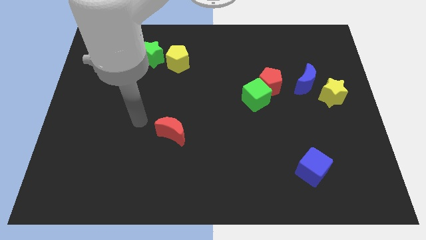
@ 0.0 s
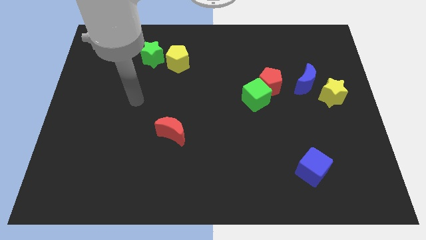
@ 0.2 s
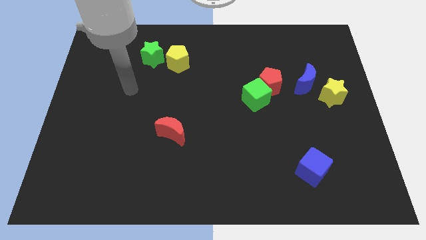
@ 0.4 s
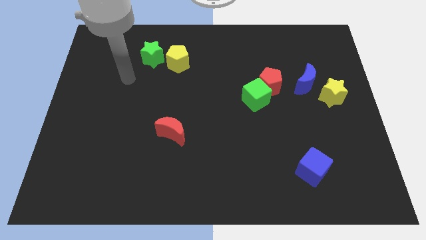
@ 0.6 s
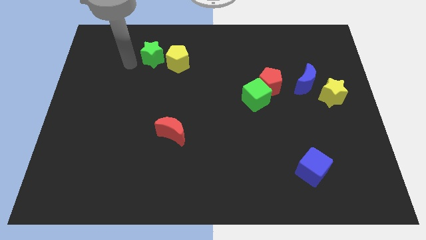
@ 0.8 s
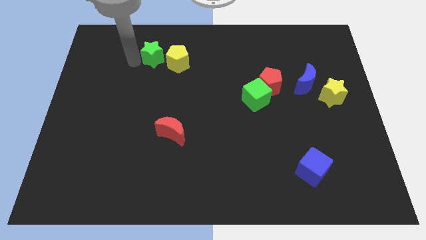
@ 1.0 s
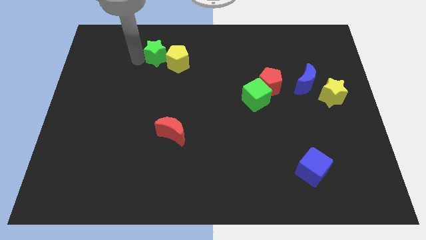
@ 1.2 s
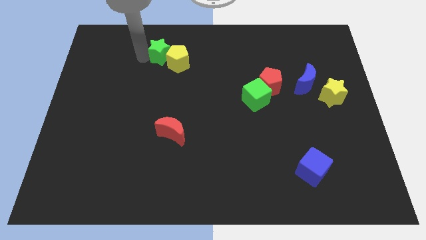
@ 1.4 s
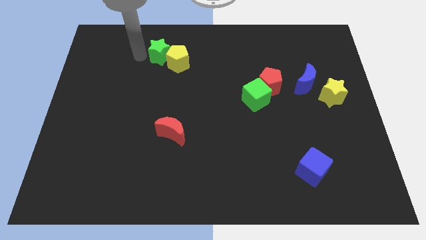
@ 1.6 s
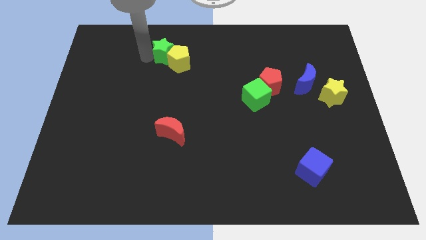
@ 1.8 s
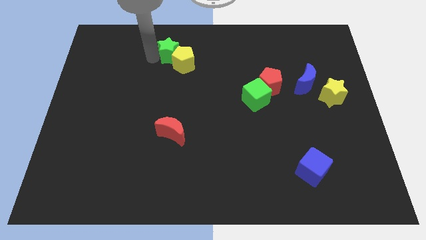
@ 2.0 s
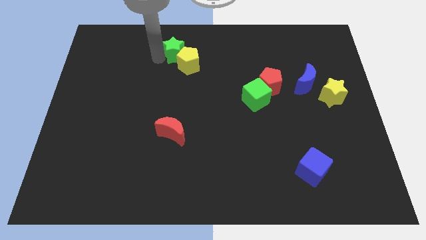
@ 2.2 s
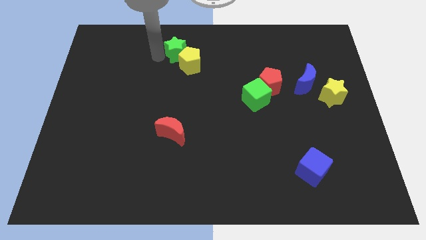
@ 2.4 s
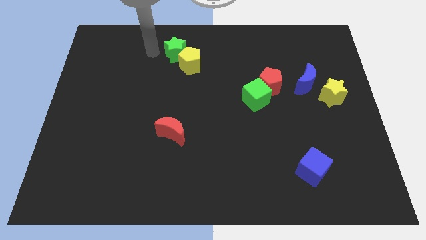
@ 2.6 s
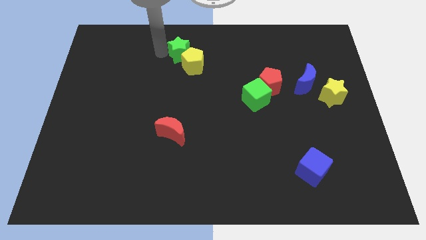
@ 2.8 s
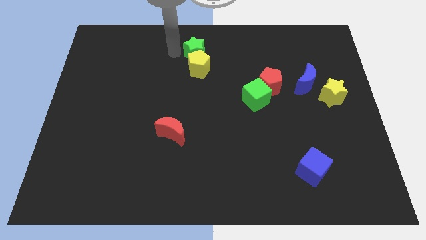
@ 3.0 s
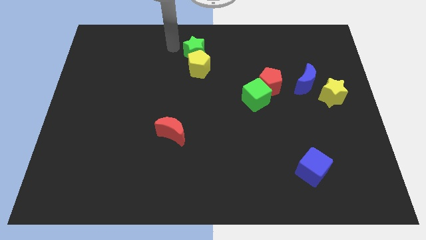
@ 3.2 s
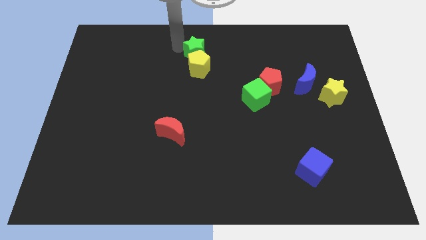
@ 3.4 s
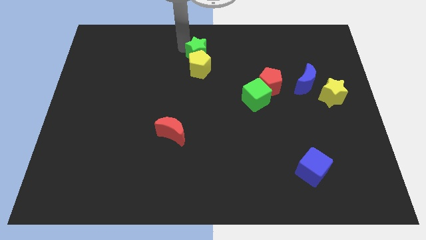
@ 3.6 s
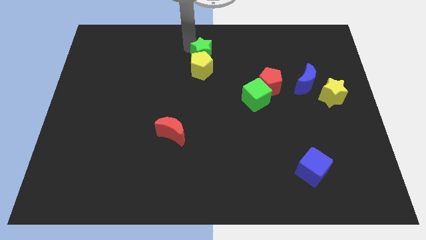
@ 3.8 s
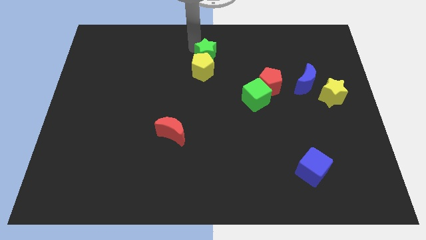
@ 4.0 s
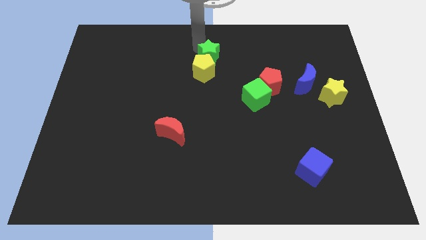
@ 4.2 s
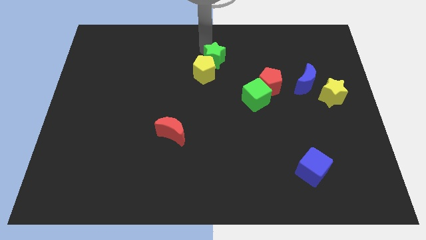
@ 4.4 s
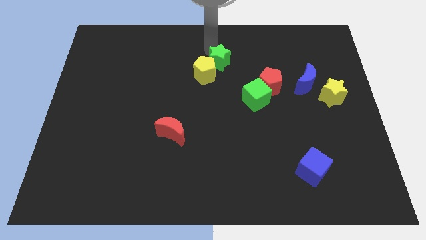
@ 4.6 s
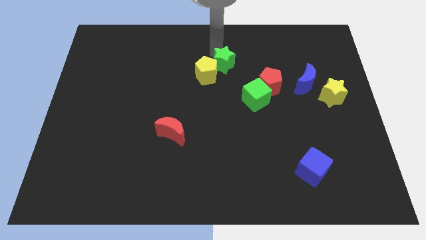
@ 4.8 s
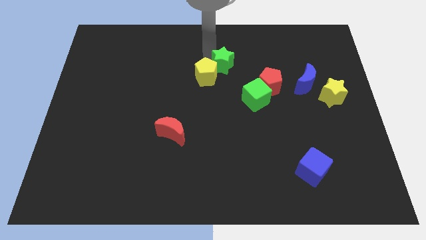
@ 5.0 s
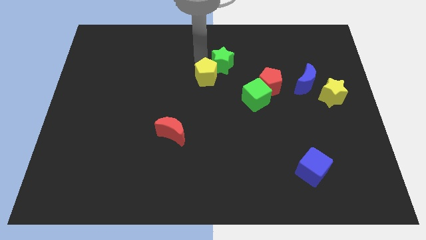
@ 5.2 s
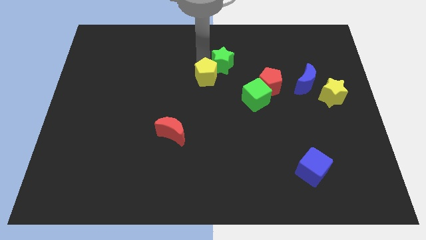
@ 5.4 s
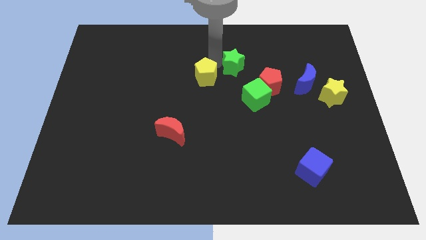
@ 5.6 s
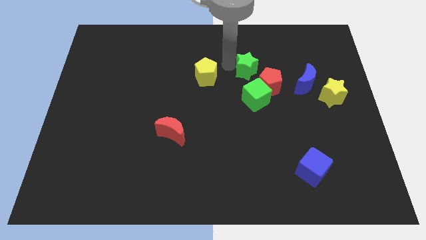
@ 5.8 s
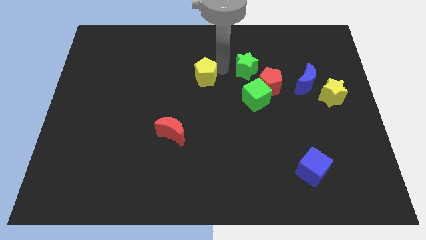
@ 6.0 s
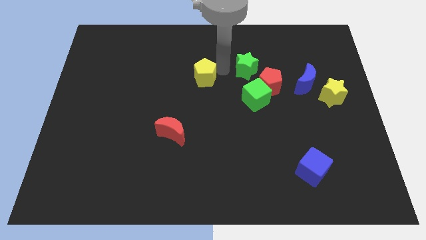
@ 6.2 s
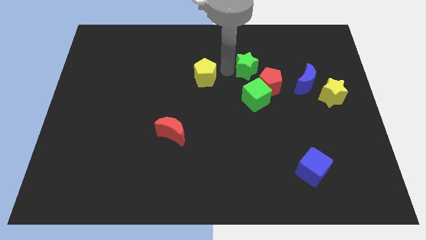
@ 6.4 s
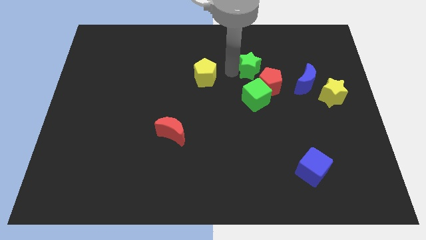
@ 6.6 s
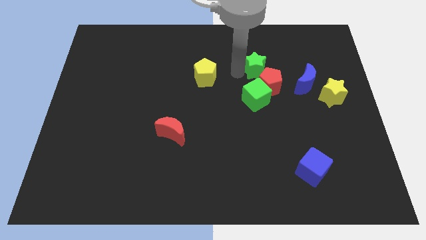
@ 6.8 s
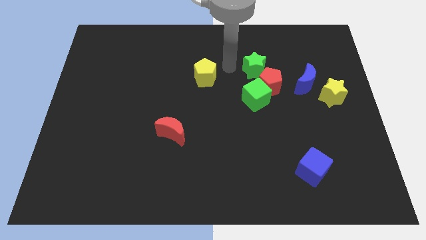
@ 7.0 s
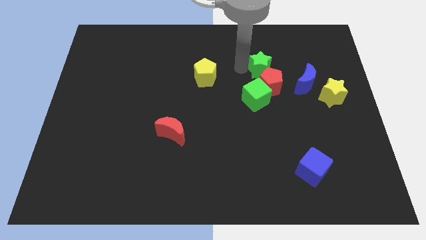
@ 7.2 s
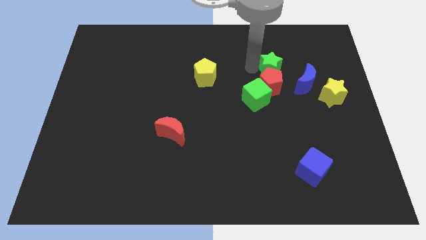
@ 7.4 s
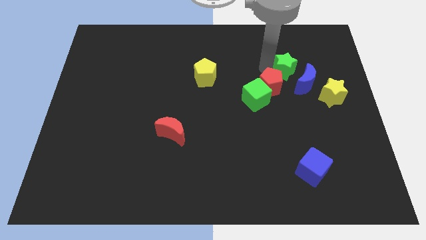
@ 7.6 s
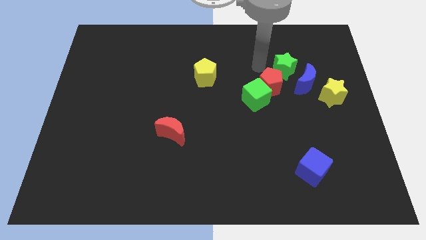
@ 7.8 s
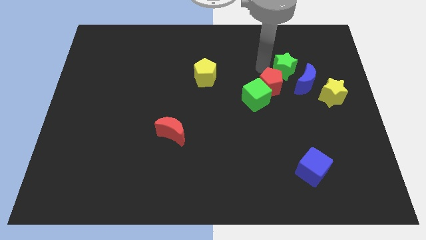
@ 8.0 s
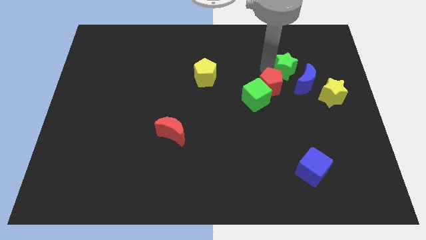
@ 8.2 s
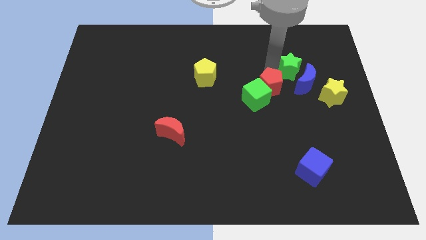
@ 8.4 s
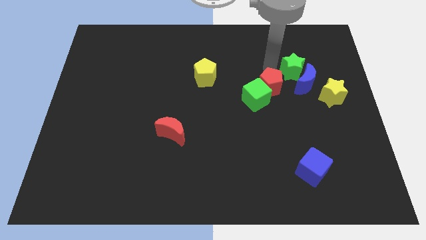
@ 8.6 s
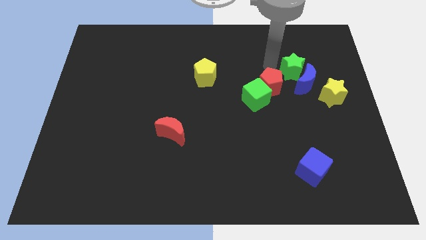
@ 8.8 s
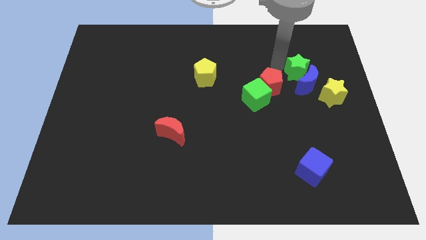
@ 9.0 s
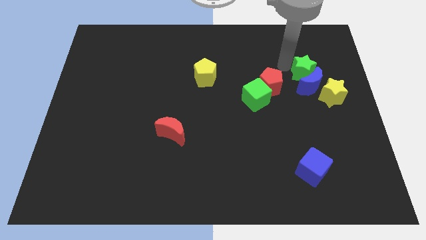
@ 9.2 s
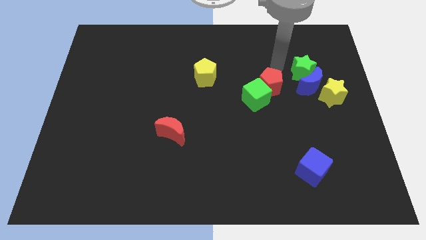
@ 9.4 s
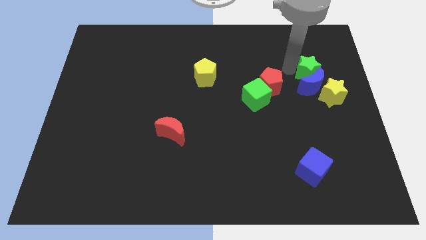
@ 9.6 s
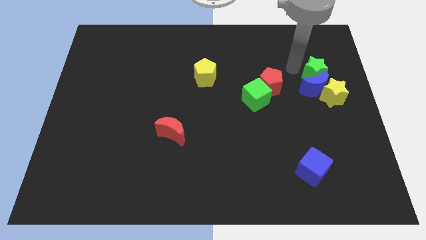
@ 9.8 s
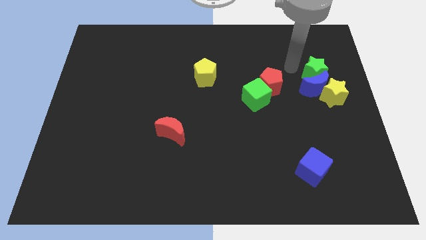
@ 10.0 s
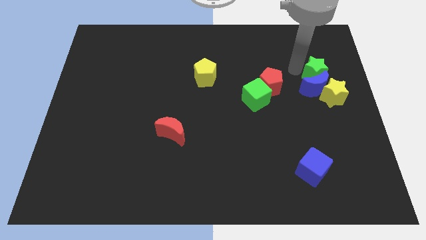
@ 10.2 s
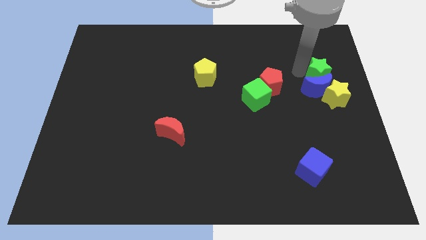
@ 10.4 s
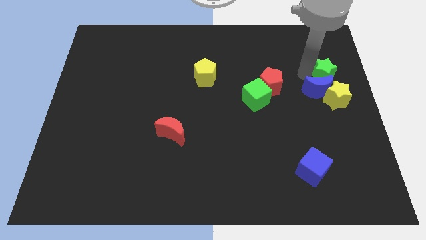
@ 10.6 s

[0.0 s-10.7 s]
move the green star to the right side of the board

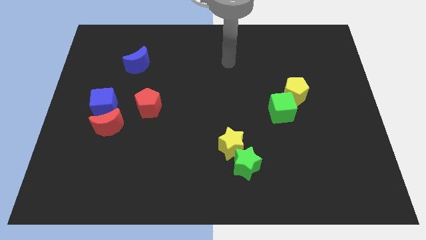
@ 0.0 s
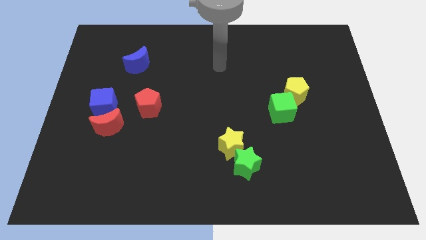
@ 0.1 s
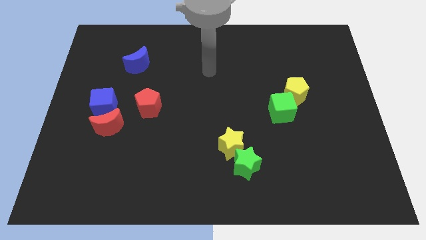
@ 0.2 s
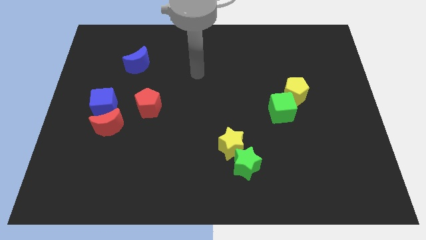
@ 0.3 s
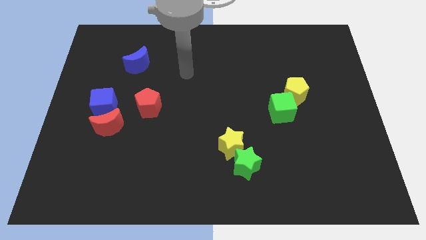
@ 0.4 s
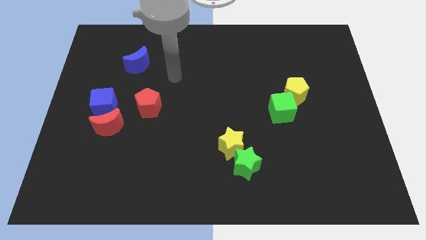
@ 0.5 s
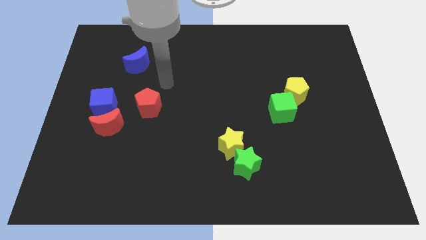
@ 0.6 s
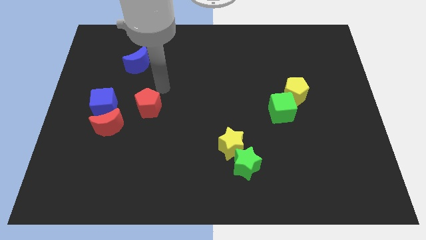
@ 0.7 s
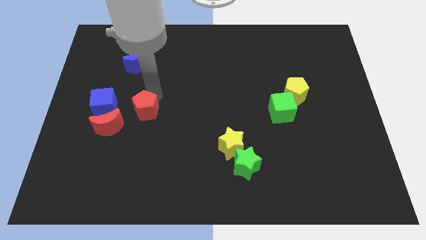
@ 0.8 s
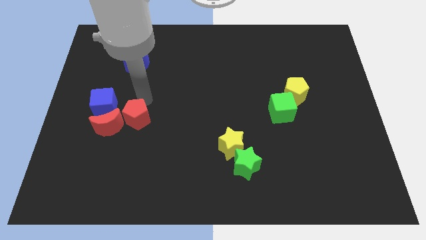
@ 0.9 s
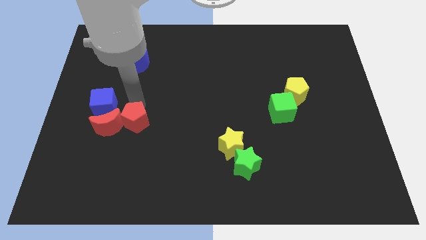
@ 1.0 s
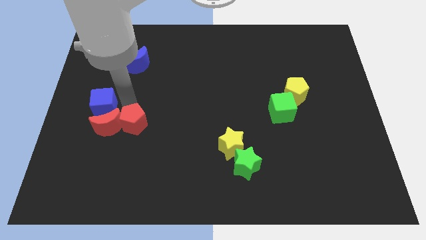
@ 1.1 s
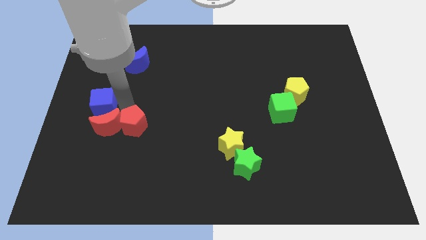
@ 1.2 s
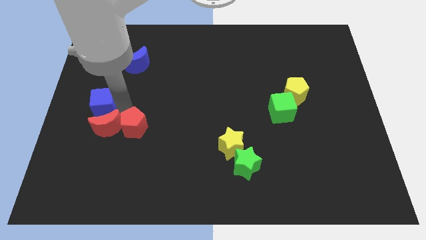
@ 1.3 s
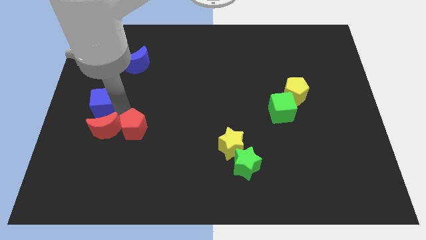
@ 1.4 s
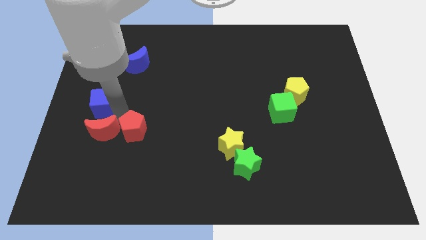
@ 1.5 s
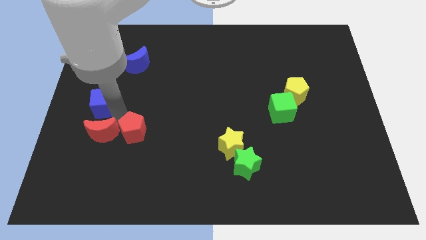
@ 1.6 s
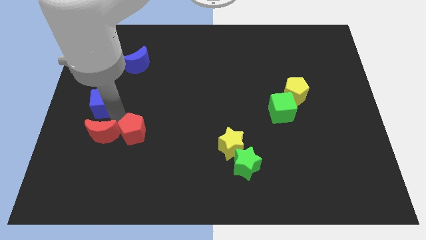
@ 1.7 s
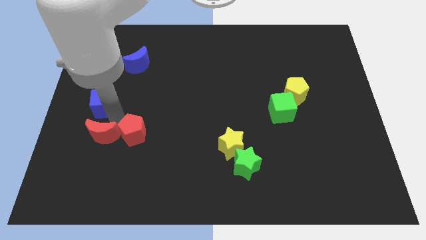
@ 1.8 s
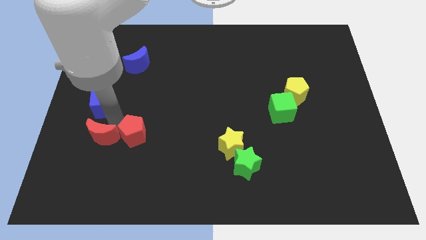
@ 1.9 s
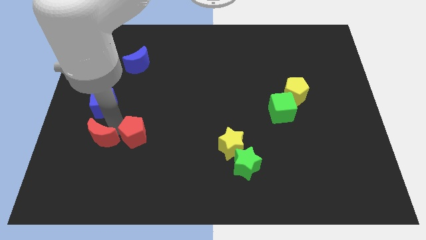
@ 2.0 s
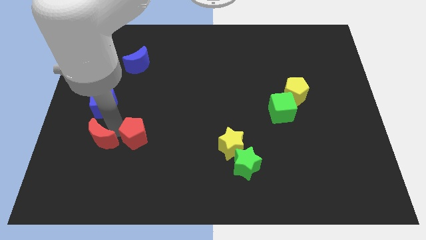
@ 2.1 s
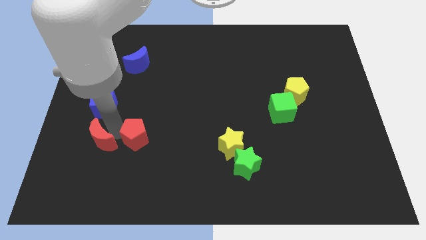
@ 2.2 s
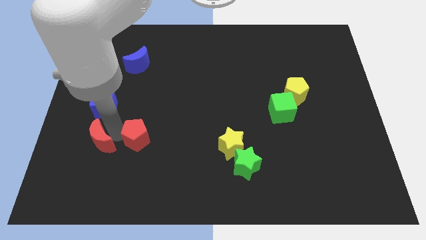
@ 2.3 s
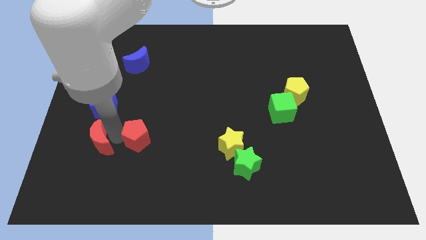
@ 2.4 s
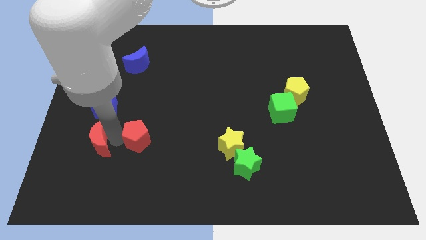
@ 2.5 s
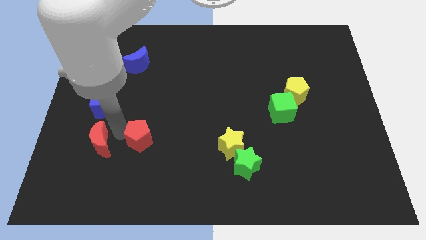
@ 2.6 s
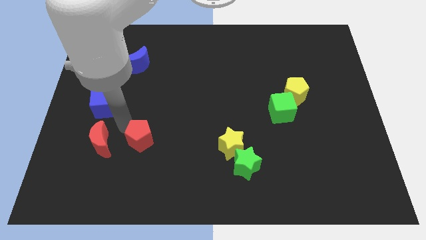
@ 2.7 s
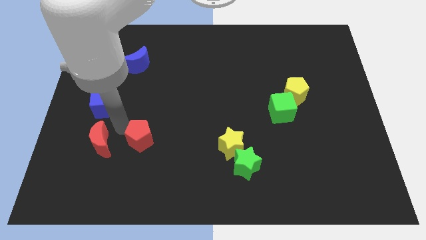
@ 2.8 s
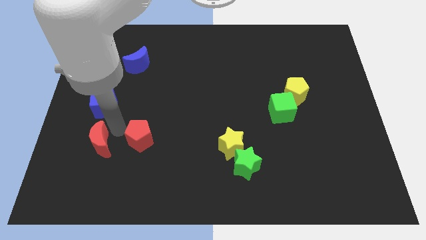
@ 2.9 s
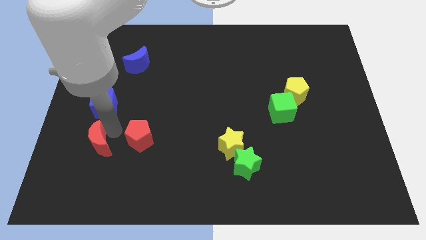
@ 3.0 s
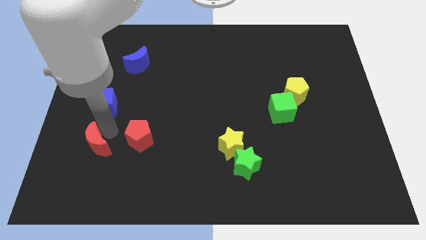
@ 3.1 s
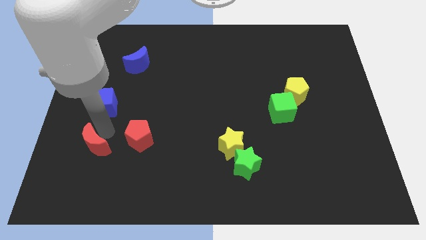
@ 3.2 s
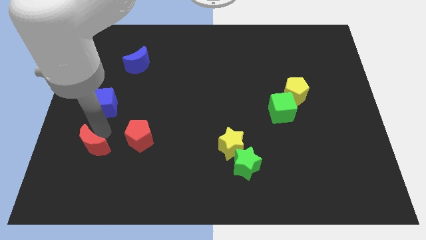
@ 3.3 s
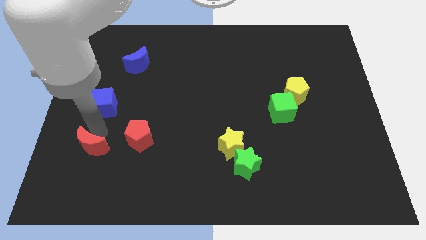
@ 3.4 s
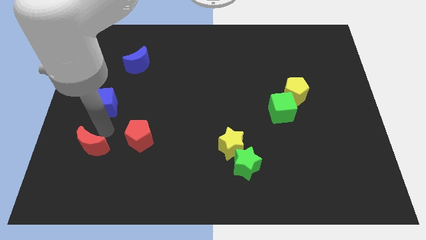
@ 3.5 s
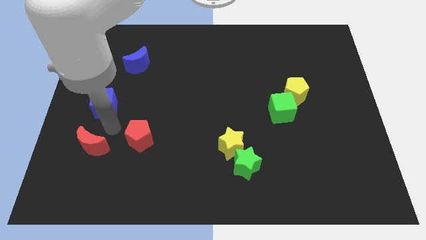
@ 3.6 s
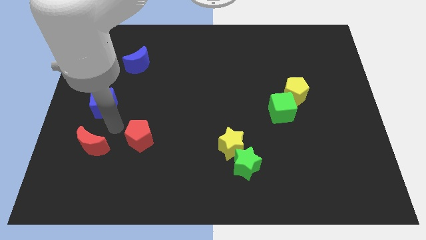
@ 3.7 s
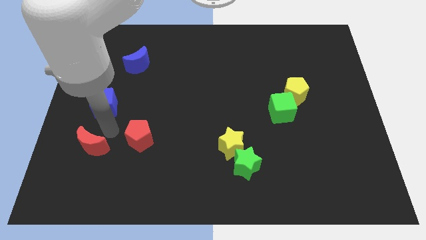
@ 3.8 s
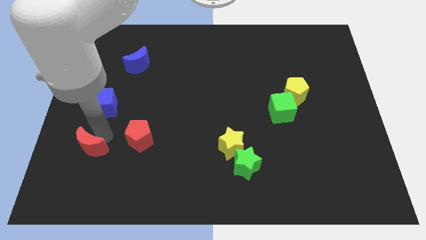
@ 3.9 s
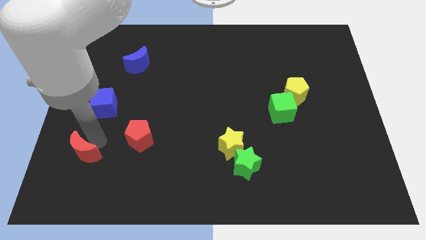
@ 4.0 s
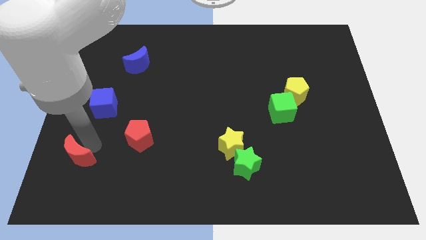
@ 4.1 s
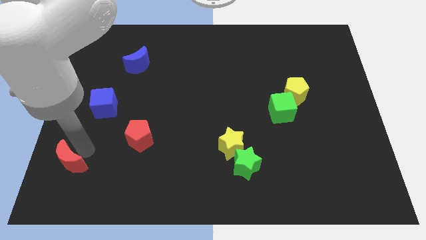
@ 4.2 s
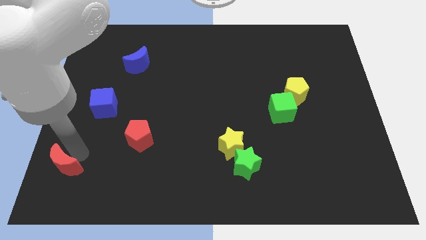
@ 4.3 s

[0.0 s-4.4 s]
move the red moon to the bottom left
